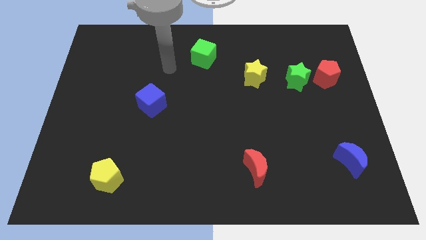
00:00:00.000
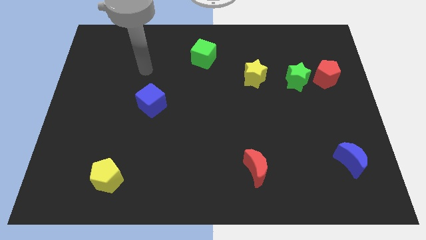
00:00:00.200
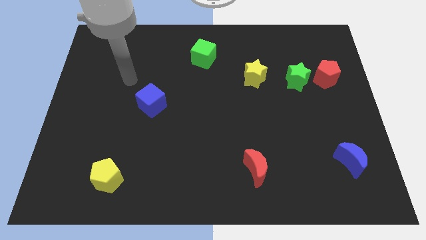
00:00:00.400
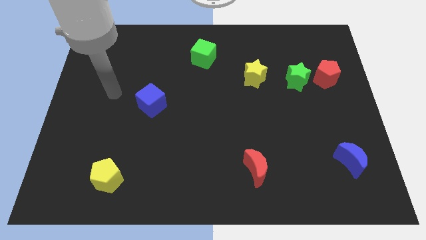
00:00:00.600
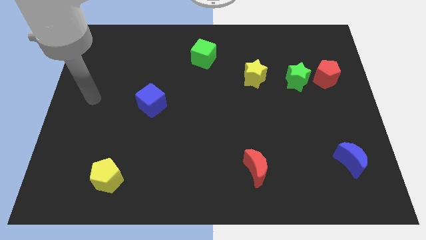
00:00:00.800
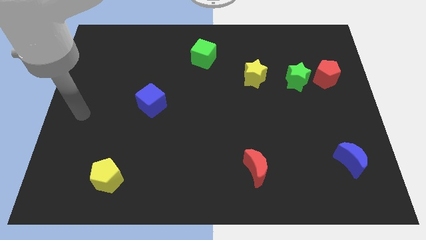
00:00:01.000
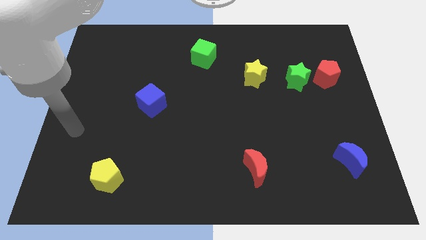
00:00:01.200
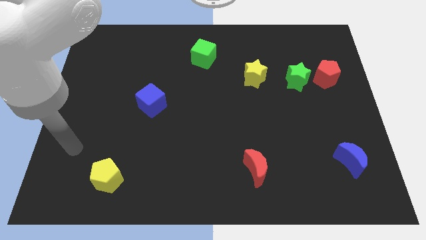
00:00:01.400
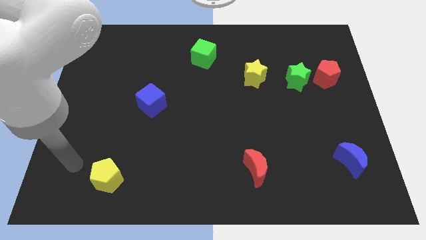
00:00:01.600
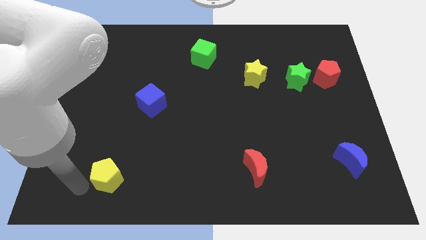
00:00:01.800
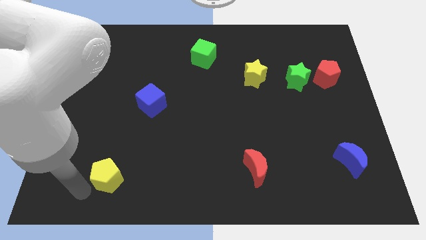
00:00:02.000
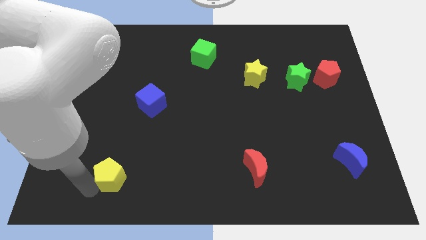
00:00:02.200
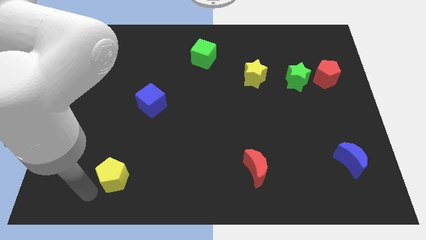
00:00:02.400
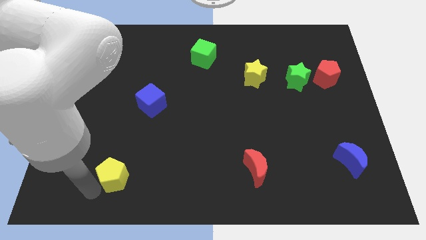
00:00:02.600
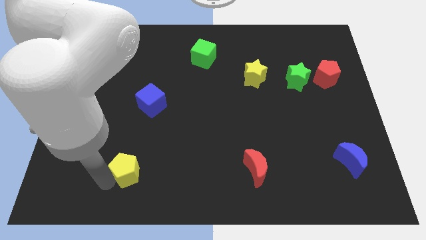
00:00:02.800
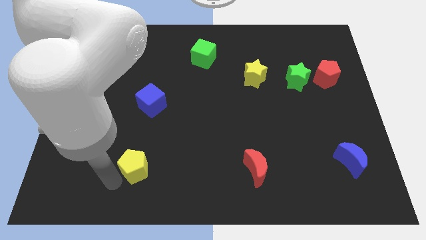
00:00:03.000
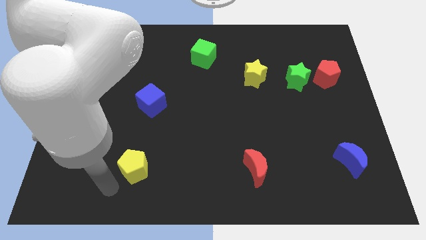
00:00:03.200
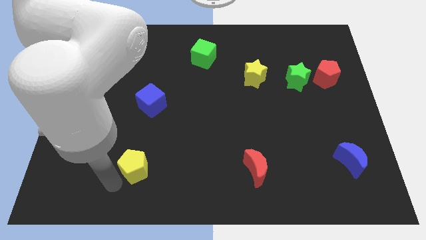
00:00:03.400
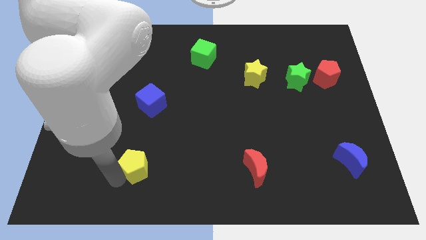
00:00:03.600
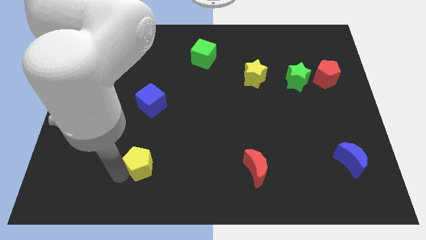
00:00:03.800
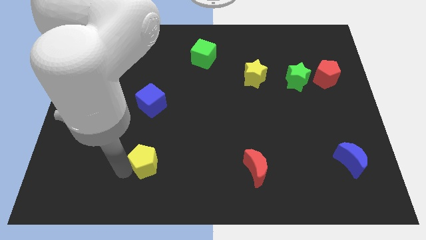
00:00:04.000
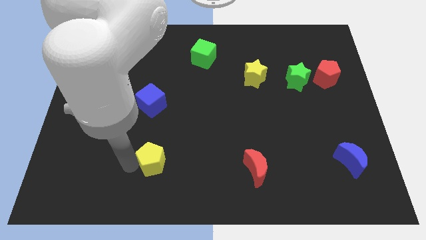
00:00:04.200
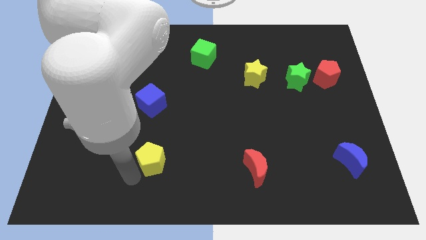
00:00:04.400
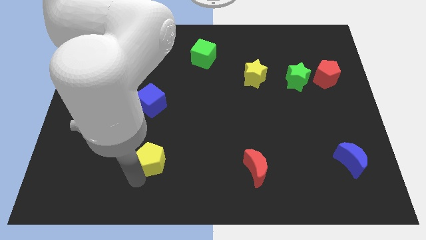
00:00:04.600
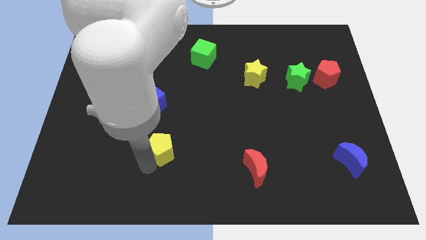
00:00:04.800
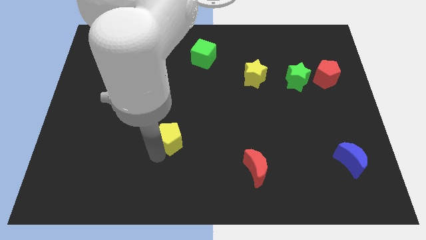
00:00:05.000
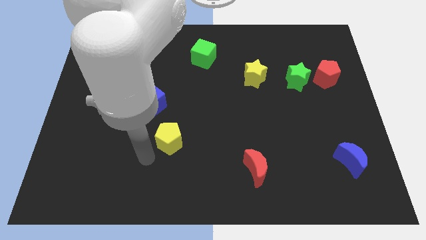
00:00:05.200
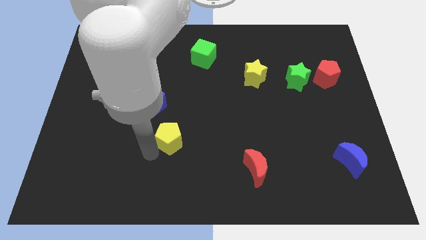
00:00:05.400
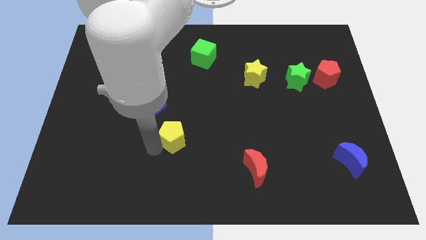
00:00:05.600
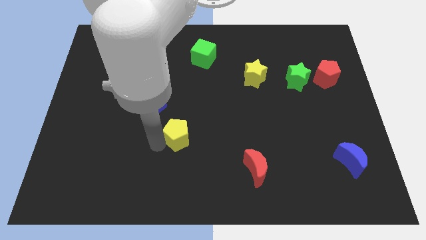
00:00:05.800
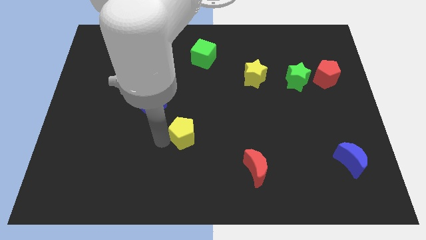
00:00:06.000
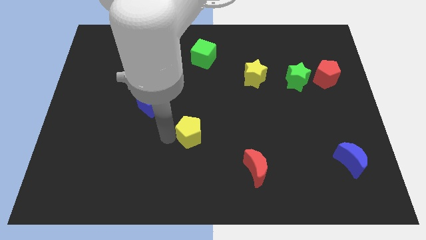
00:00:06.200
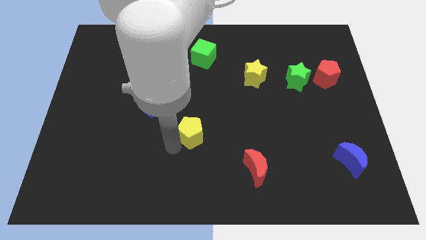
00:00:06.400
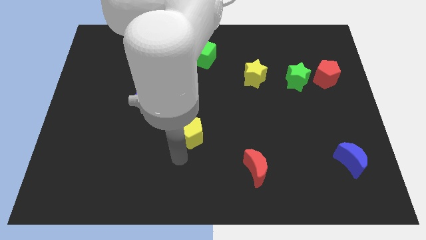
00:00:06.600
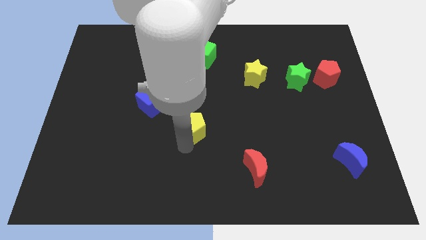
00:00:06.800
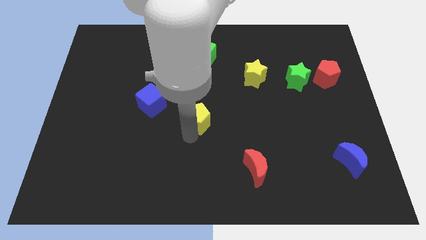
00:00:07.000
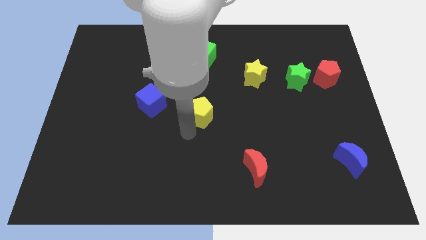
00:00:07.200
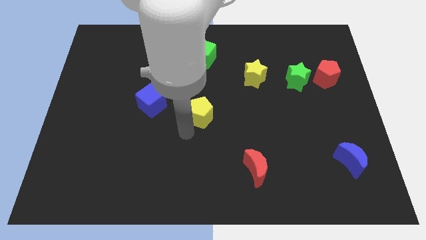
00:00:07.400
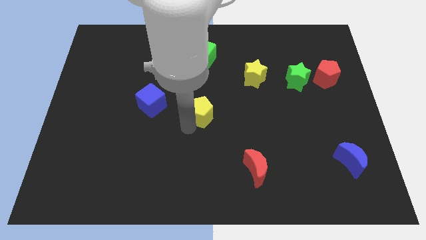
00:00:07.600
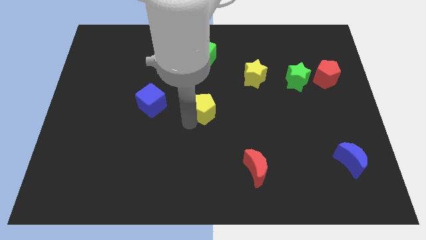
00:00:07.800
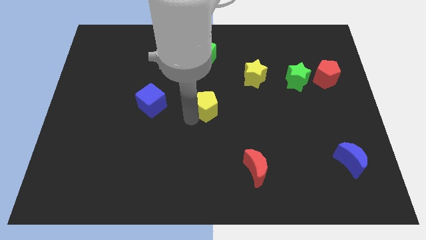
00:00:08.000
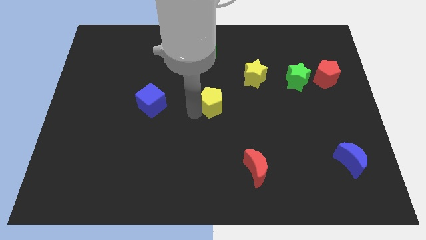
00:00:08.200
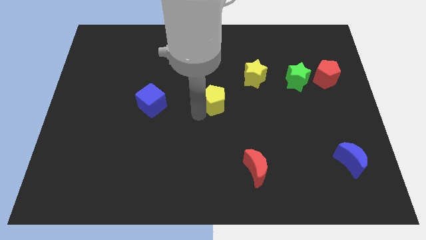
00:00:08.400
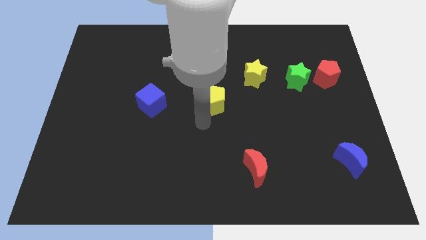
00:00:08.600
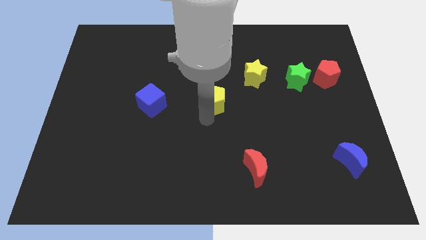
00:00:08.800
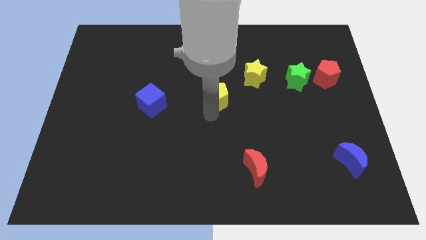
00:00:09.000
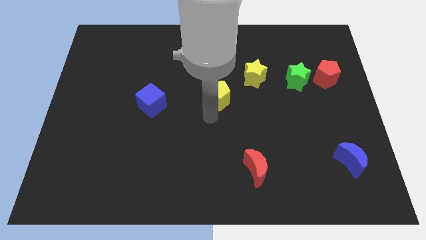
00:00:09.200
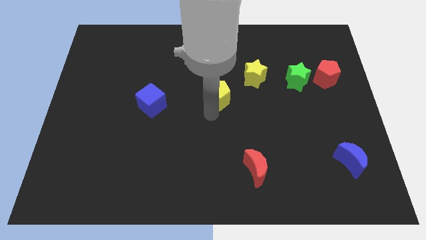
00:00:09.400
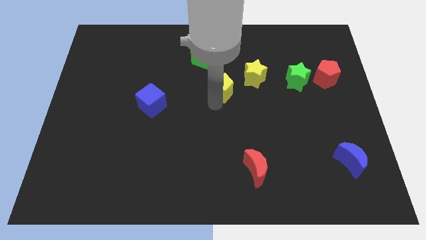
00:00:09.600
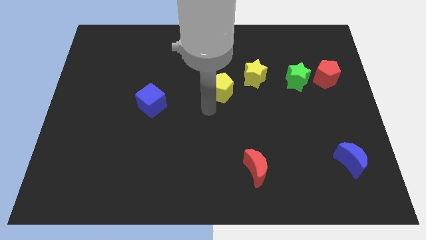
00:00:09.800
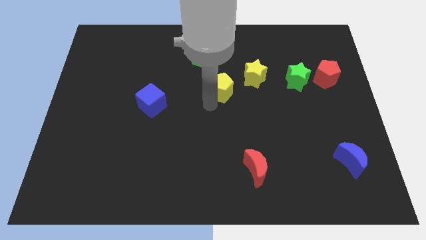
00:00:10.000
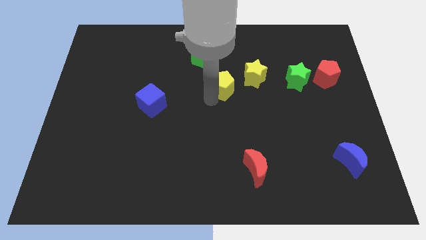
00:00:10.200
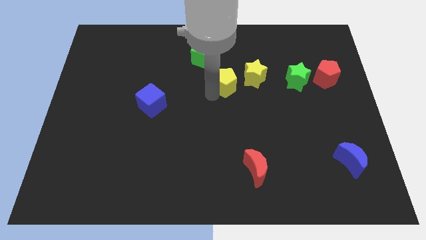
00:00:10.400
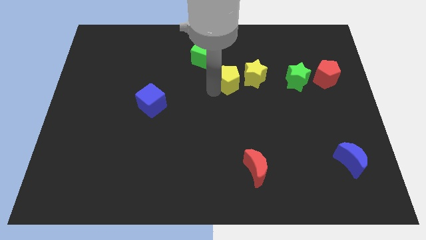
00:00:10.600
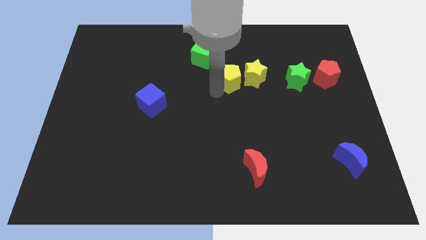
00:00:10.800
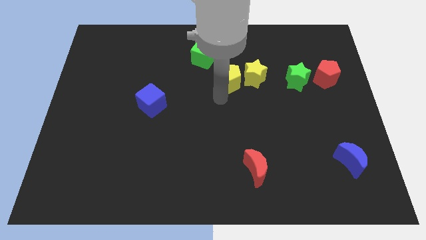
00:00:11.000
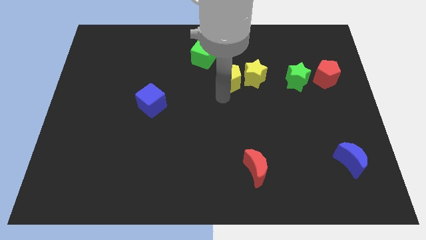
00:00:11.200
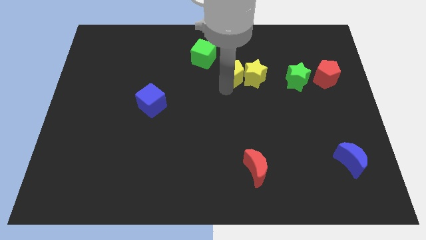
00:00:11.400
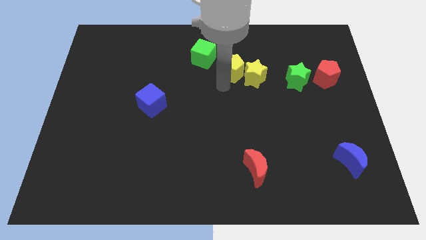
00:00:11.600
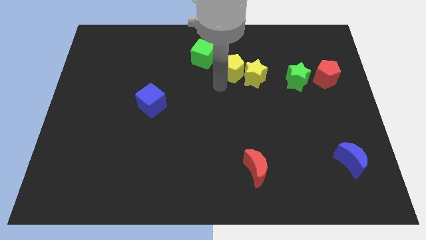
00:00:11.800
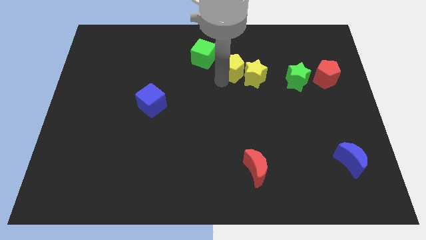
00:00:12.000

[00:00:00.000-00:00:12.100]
push the yellow pentagon just right of the green cube

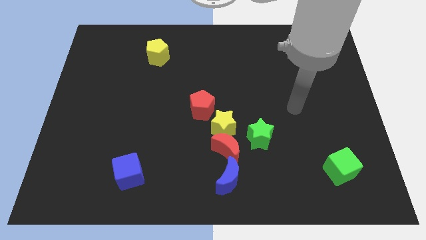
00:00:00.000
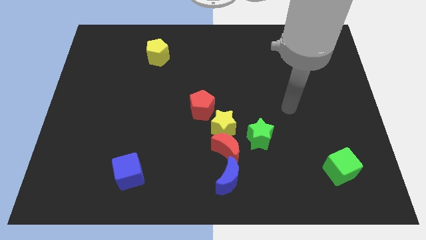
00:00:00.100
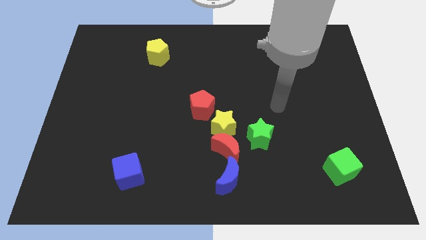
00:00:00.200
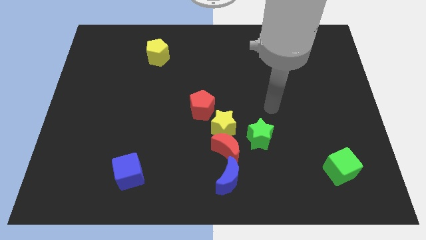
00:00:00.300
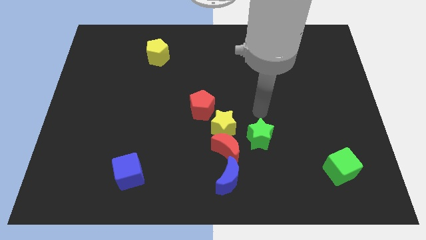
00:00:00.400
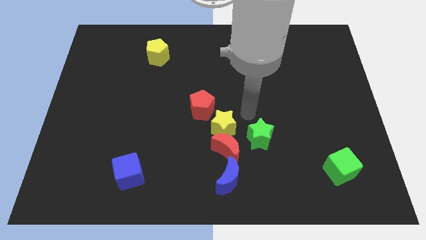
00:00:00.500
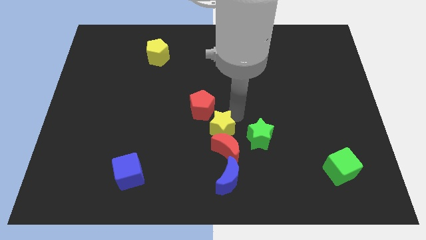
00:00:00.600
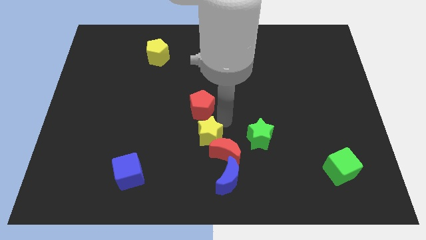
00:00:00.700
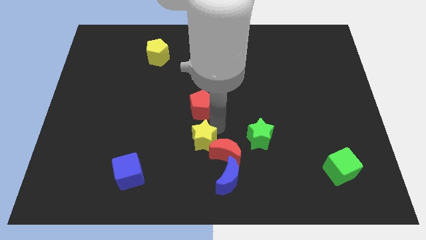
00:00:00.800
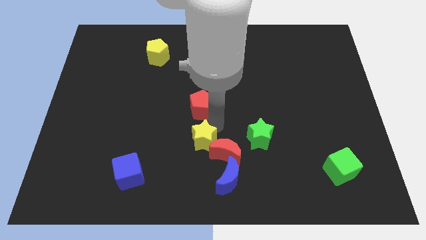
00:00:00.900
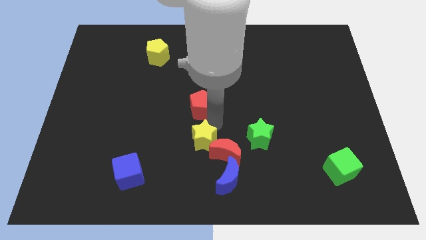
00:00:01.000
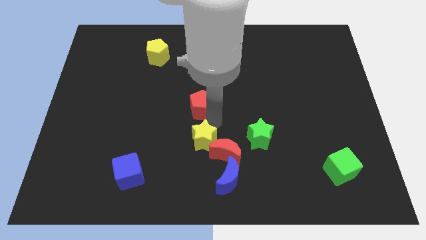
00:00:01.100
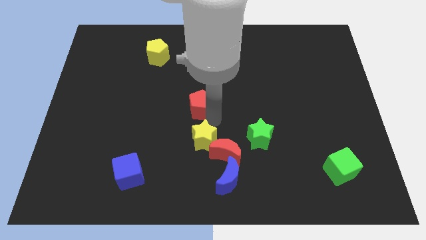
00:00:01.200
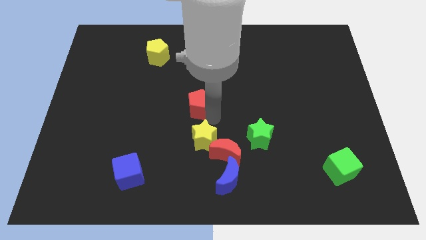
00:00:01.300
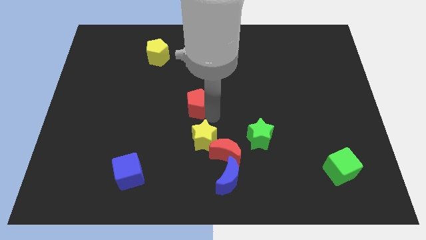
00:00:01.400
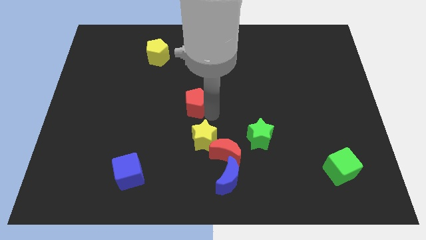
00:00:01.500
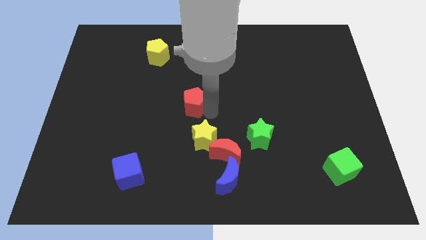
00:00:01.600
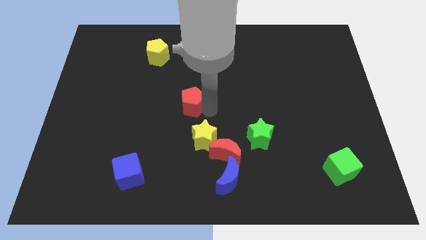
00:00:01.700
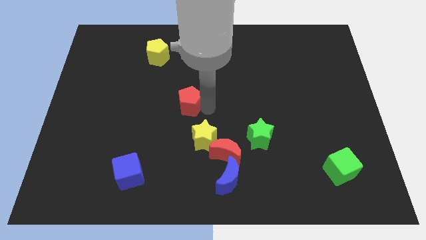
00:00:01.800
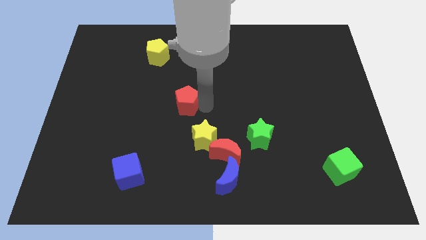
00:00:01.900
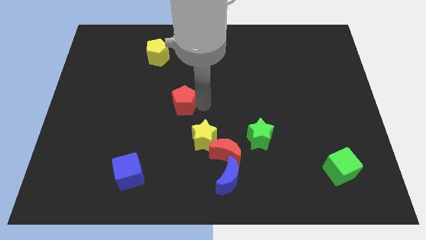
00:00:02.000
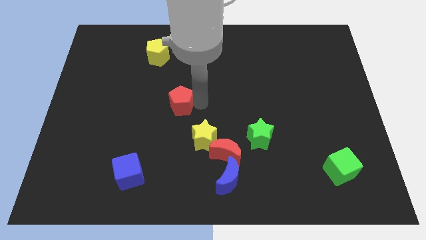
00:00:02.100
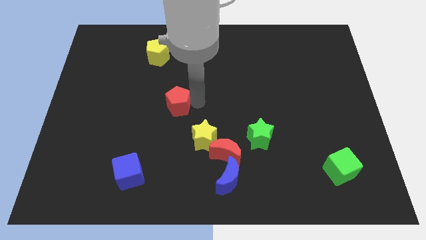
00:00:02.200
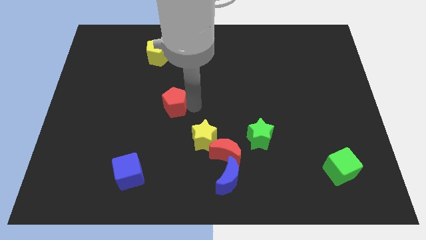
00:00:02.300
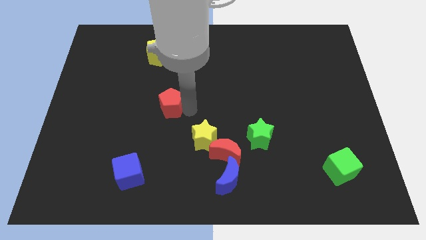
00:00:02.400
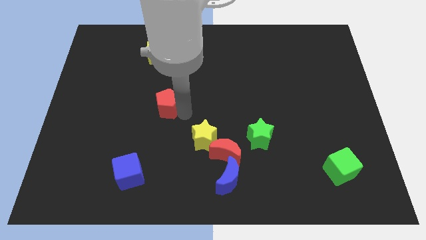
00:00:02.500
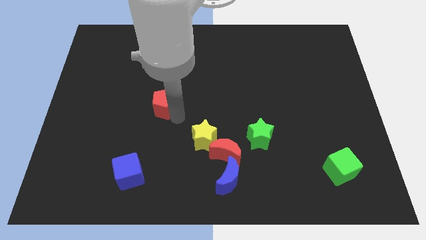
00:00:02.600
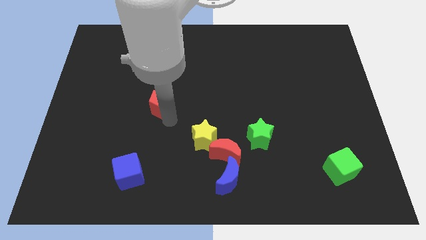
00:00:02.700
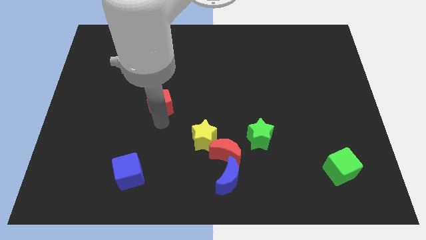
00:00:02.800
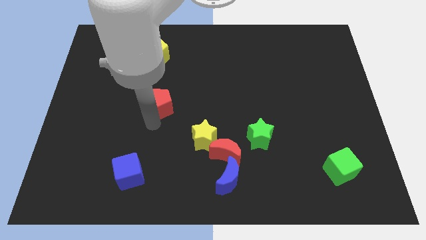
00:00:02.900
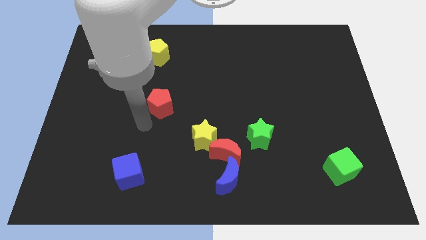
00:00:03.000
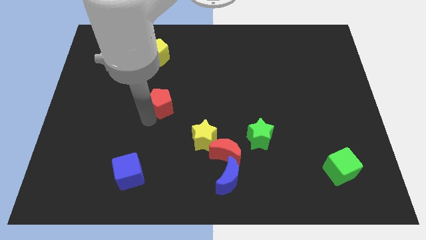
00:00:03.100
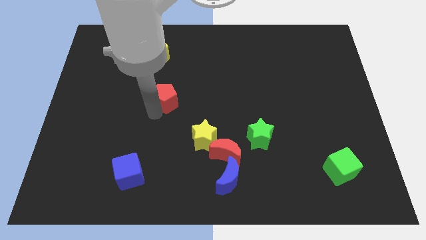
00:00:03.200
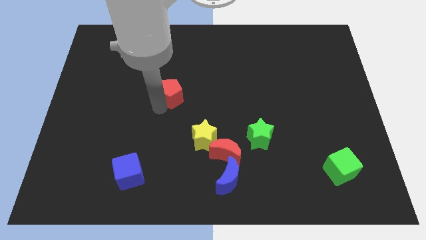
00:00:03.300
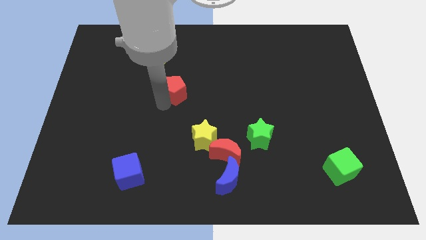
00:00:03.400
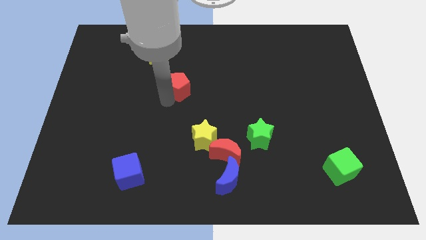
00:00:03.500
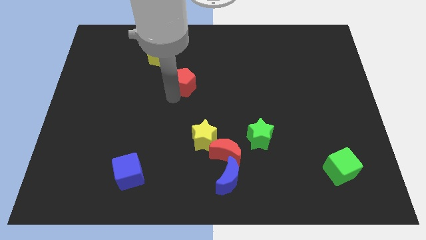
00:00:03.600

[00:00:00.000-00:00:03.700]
move the red pentagon to the bottom right of the yellow pentagon
